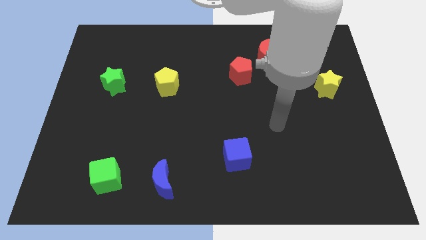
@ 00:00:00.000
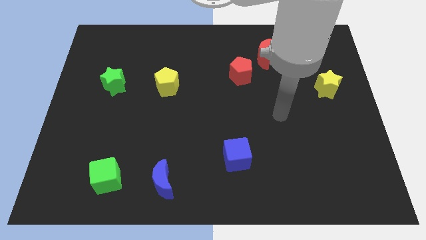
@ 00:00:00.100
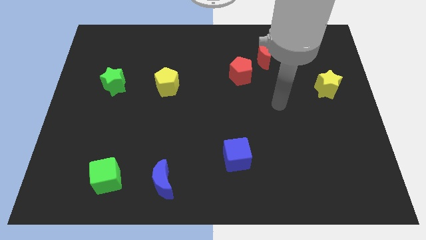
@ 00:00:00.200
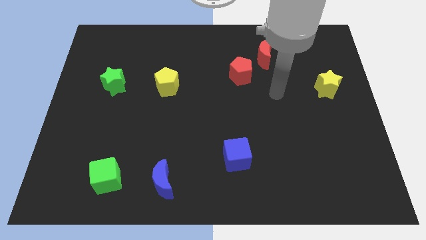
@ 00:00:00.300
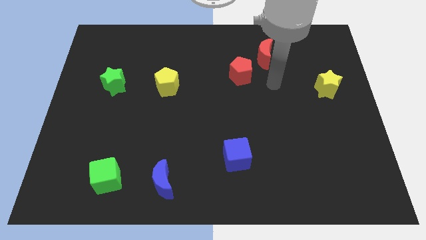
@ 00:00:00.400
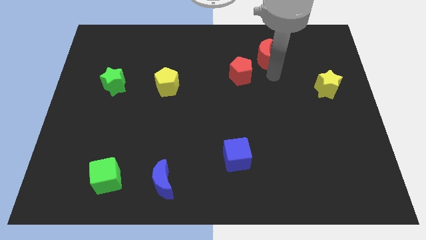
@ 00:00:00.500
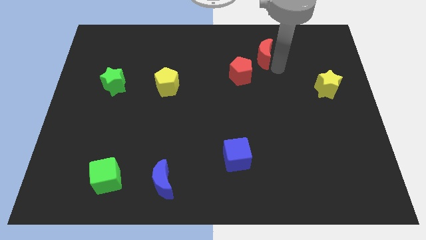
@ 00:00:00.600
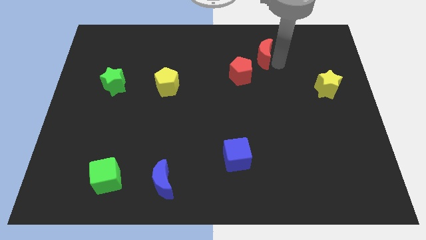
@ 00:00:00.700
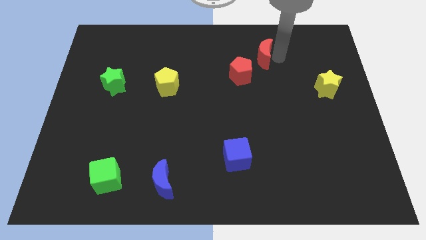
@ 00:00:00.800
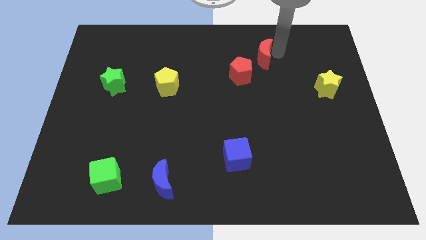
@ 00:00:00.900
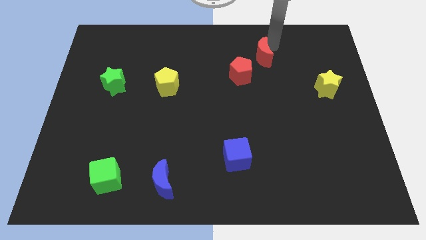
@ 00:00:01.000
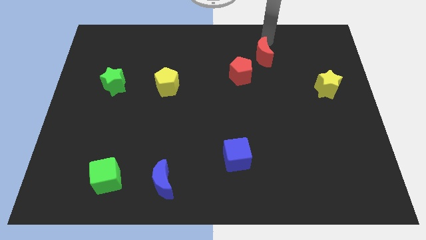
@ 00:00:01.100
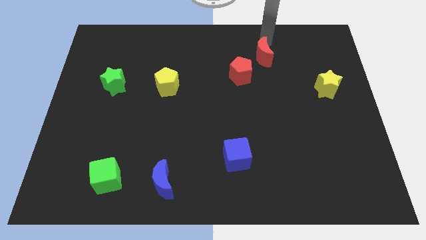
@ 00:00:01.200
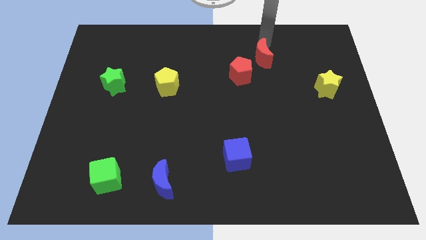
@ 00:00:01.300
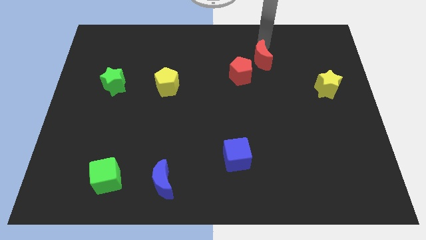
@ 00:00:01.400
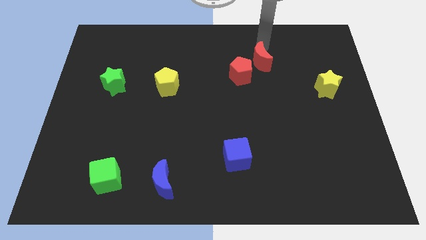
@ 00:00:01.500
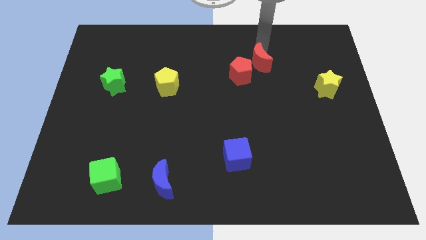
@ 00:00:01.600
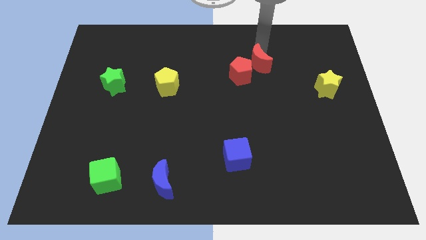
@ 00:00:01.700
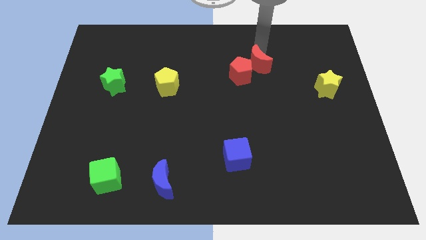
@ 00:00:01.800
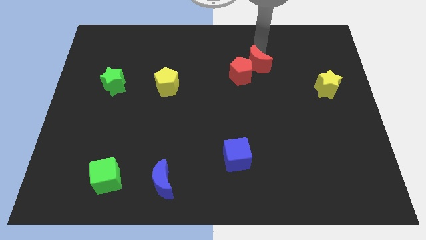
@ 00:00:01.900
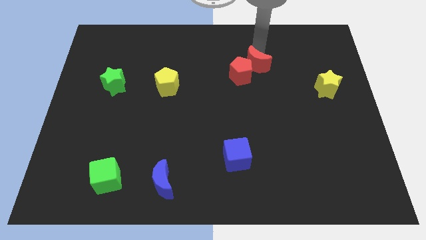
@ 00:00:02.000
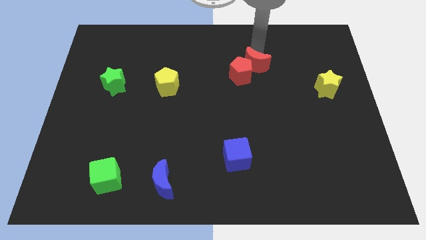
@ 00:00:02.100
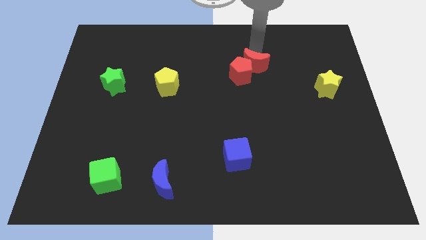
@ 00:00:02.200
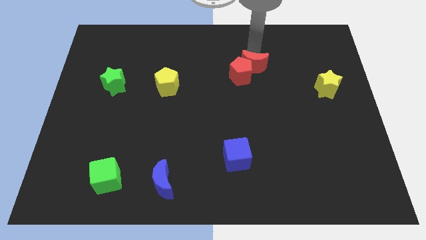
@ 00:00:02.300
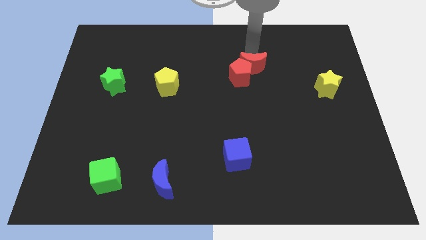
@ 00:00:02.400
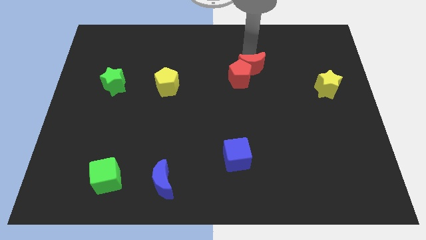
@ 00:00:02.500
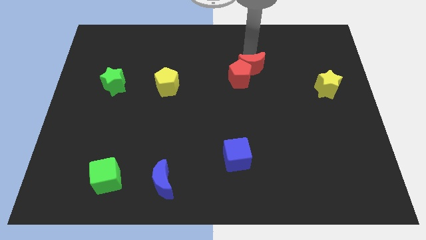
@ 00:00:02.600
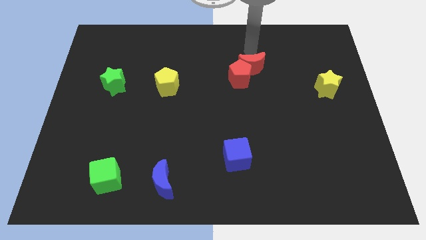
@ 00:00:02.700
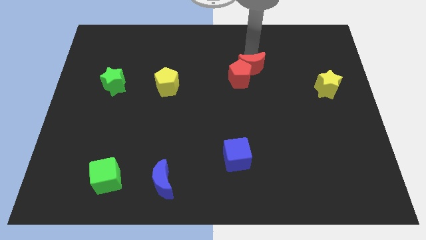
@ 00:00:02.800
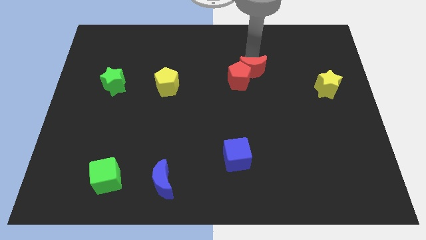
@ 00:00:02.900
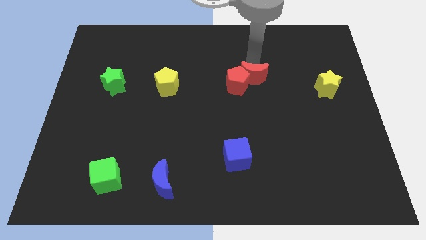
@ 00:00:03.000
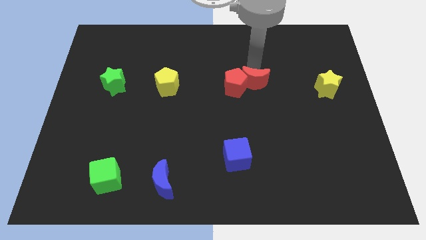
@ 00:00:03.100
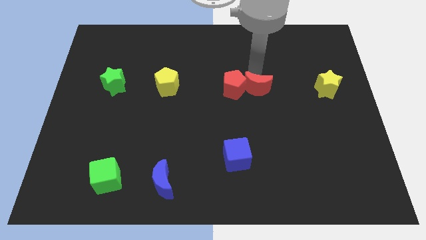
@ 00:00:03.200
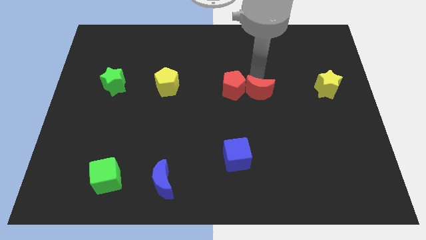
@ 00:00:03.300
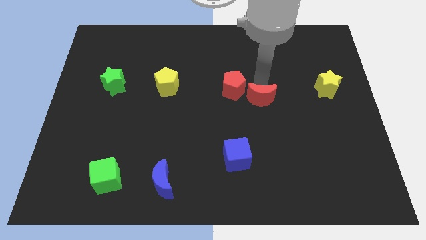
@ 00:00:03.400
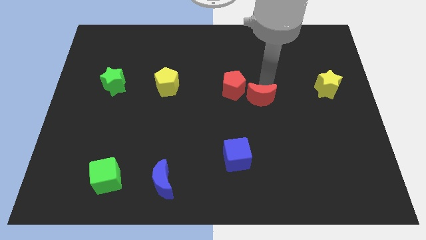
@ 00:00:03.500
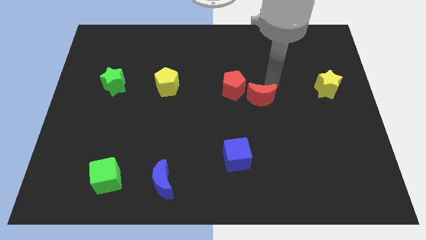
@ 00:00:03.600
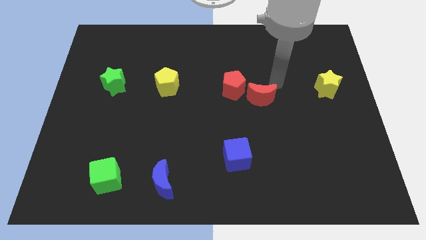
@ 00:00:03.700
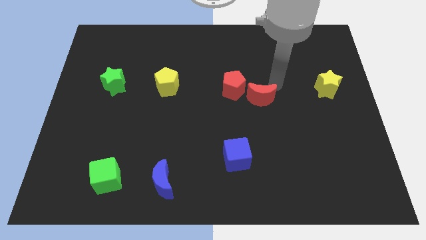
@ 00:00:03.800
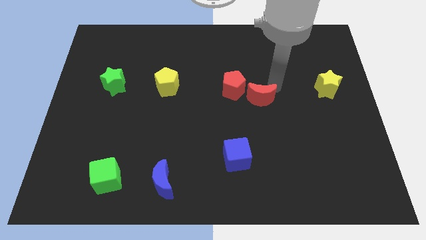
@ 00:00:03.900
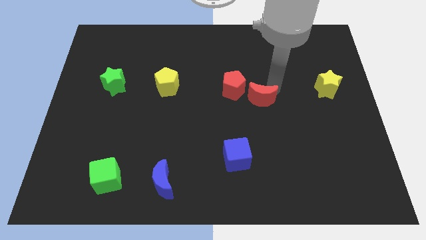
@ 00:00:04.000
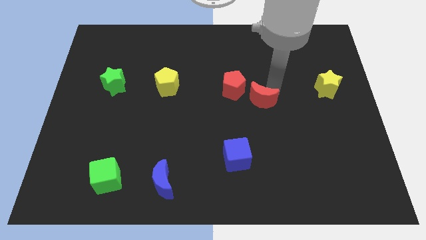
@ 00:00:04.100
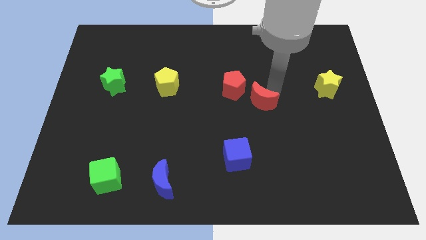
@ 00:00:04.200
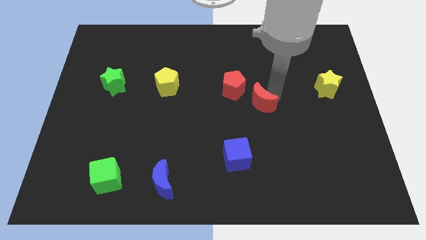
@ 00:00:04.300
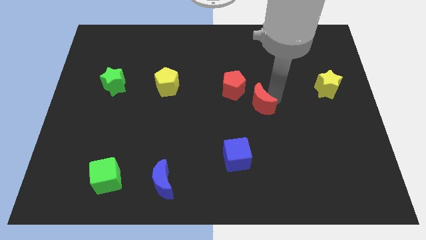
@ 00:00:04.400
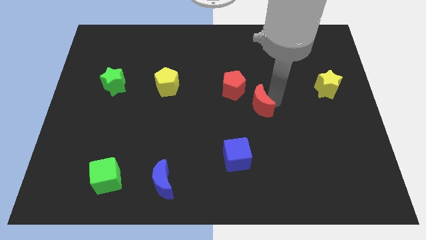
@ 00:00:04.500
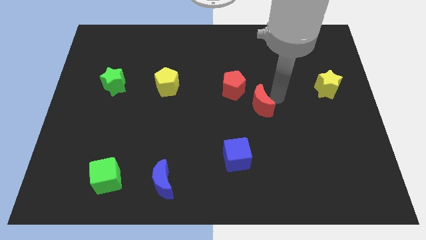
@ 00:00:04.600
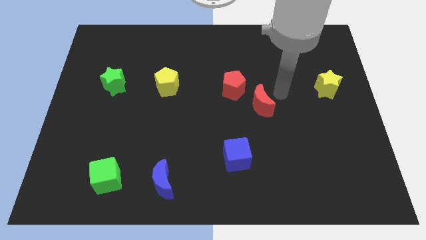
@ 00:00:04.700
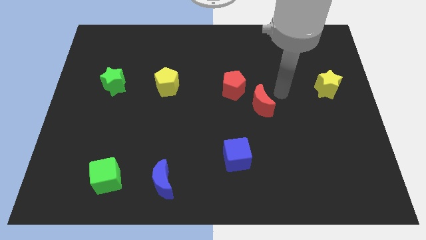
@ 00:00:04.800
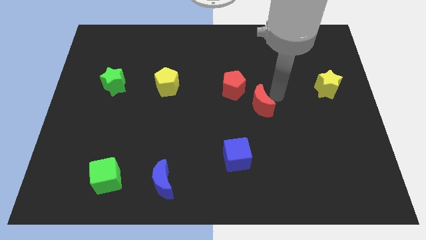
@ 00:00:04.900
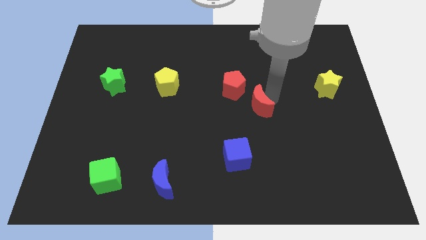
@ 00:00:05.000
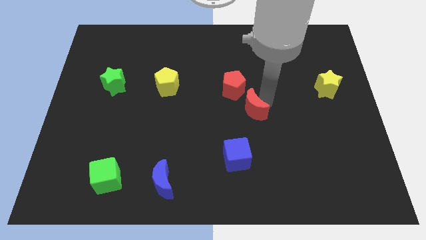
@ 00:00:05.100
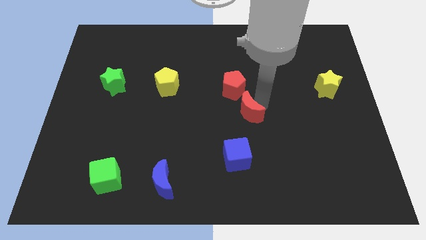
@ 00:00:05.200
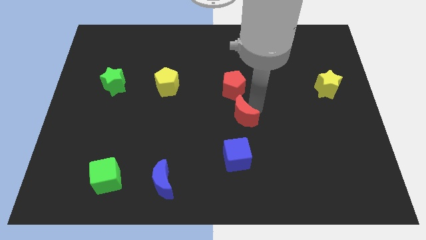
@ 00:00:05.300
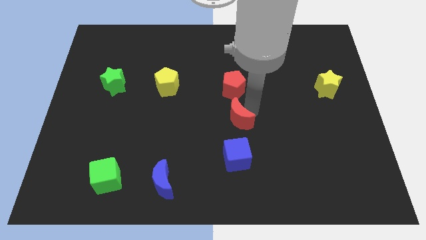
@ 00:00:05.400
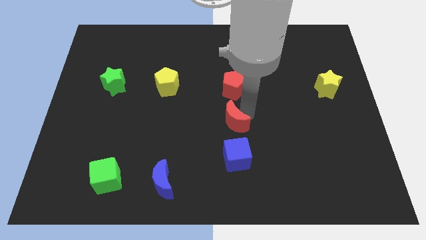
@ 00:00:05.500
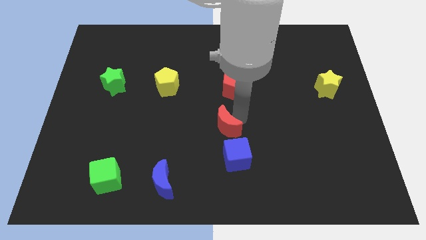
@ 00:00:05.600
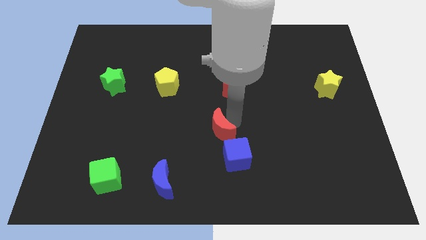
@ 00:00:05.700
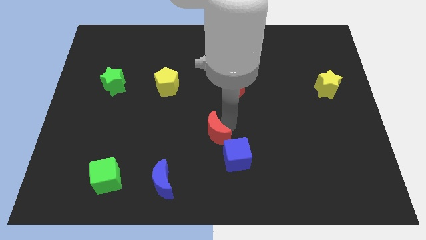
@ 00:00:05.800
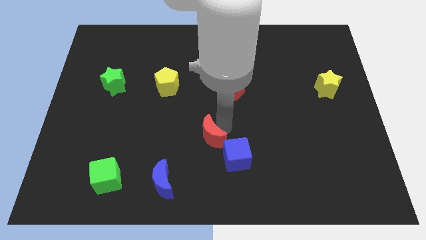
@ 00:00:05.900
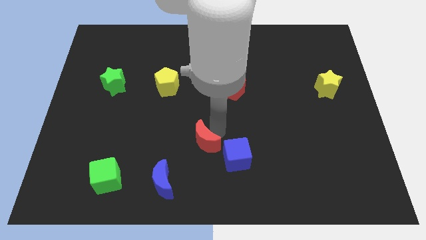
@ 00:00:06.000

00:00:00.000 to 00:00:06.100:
push the red moon to the left of the blue cube
